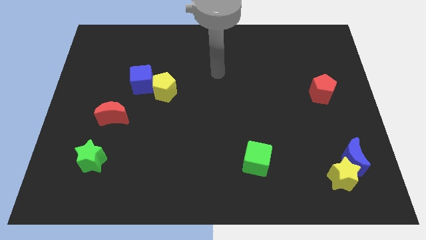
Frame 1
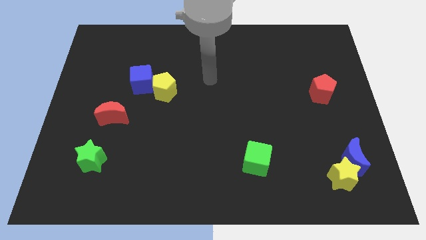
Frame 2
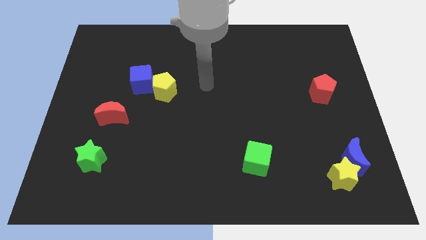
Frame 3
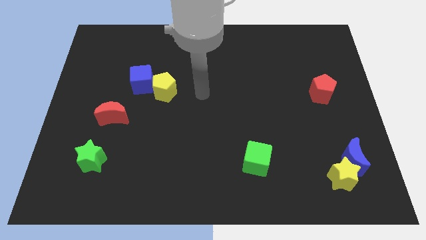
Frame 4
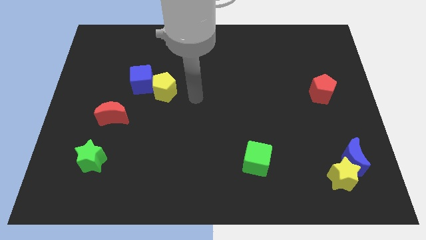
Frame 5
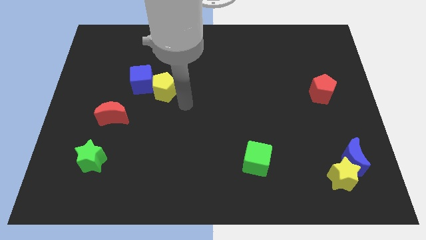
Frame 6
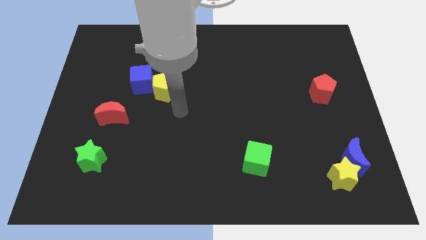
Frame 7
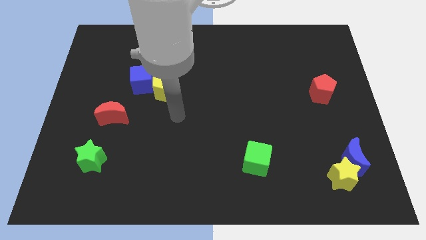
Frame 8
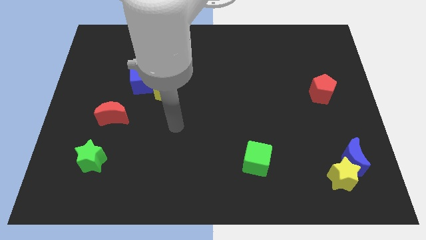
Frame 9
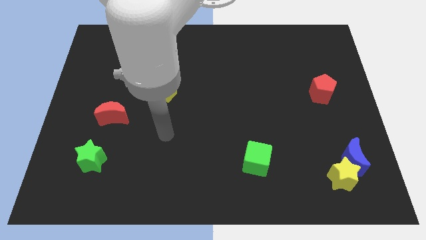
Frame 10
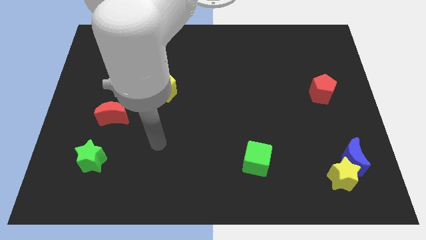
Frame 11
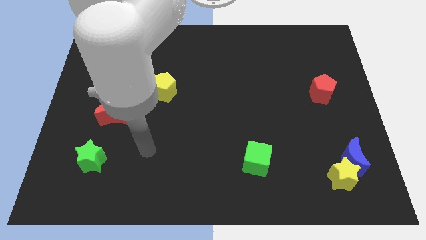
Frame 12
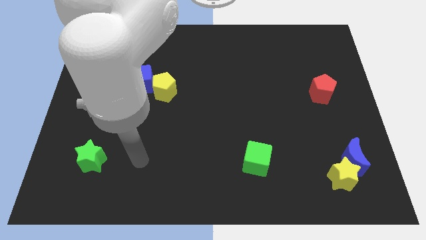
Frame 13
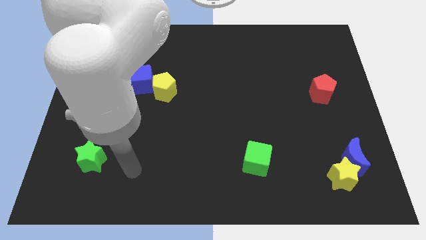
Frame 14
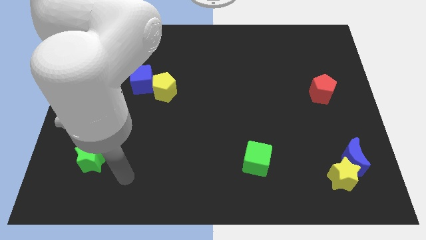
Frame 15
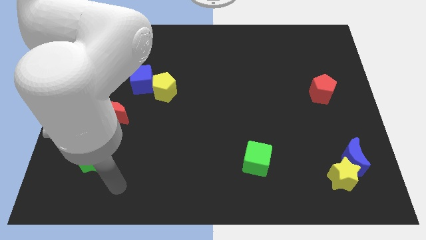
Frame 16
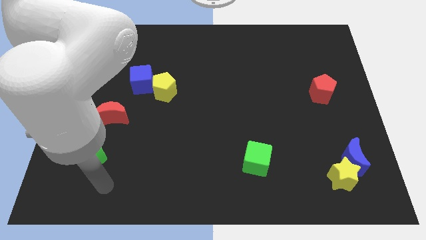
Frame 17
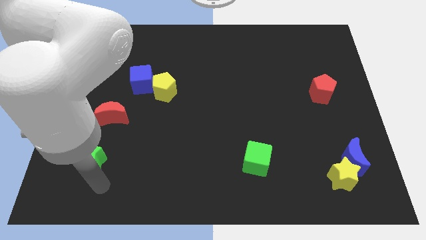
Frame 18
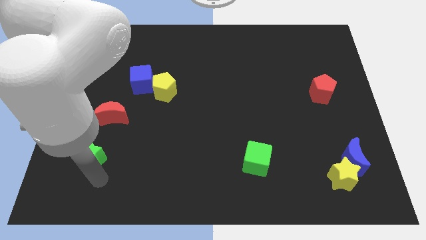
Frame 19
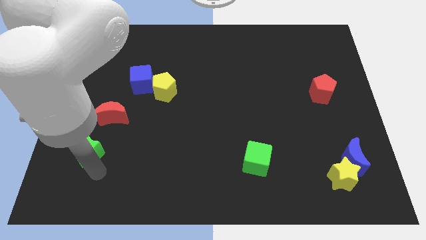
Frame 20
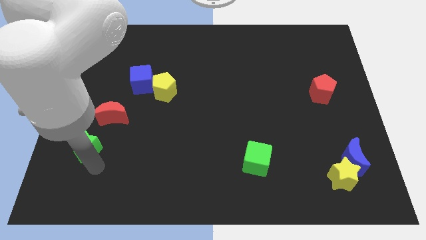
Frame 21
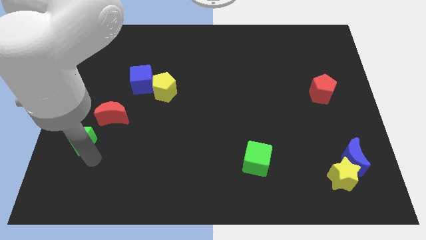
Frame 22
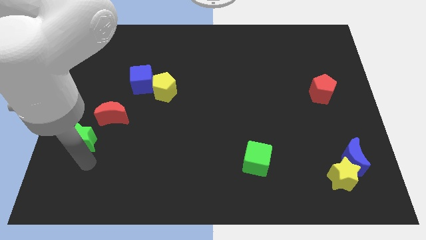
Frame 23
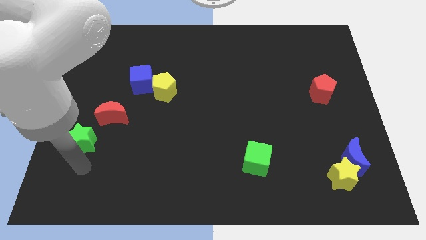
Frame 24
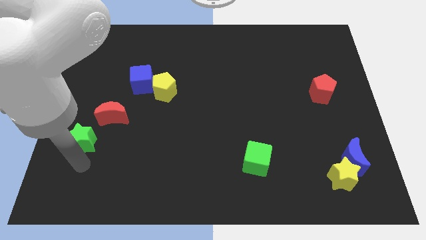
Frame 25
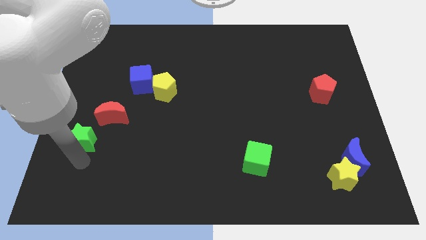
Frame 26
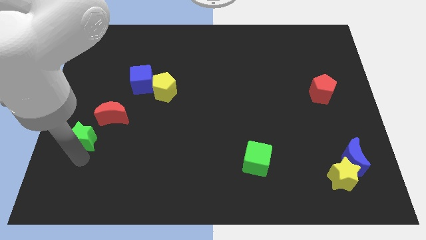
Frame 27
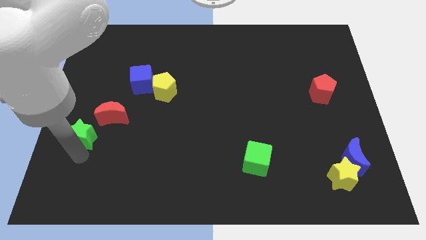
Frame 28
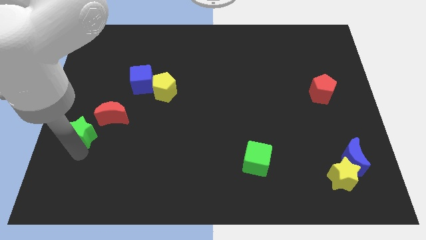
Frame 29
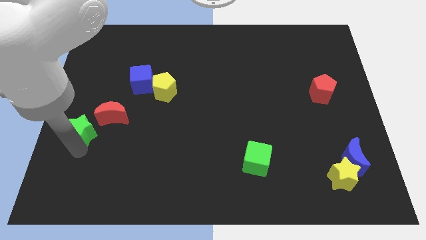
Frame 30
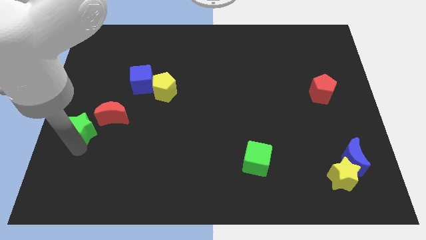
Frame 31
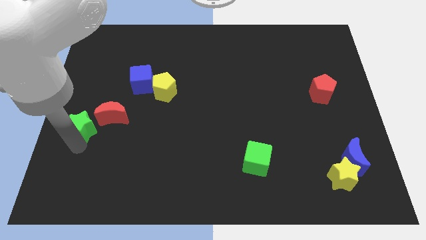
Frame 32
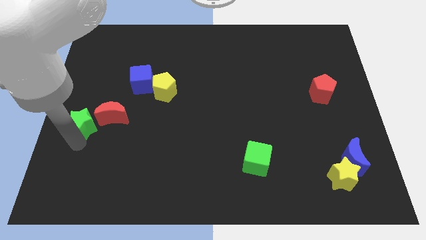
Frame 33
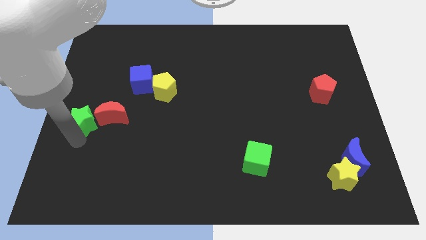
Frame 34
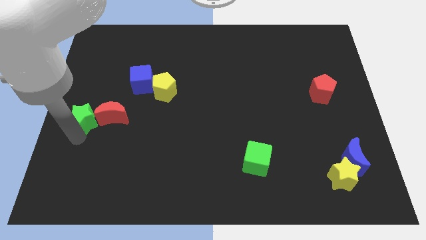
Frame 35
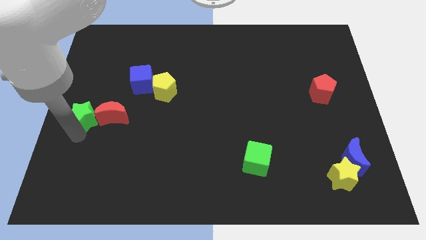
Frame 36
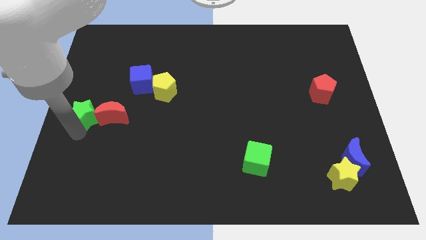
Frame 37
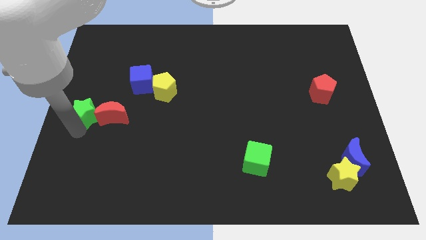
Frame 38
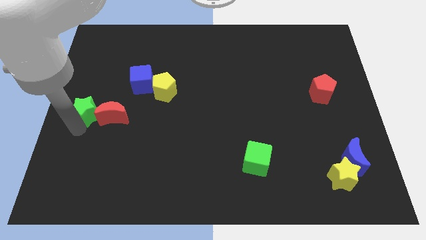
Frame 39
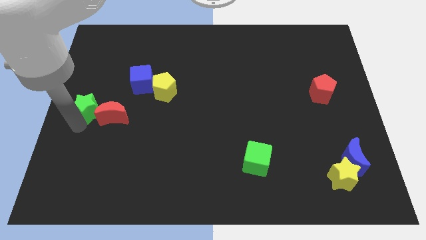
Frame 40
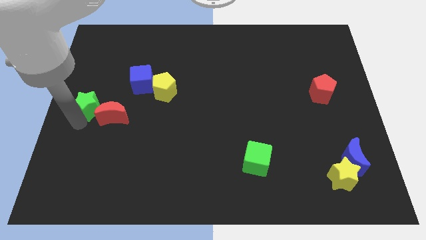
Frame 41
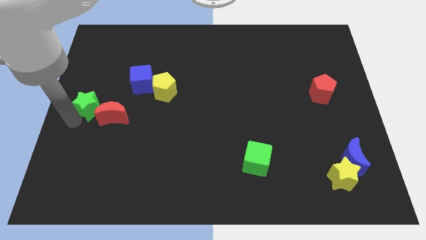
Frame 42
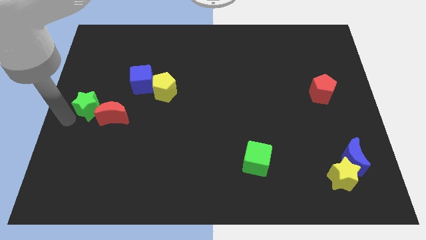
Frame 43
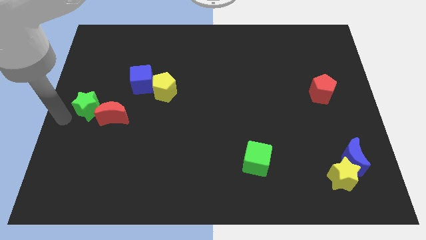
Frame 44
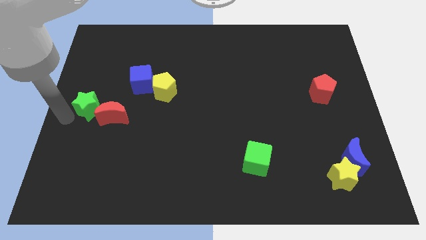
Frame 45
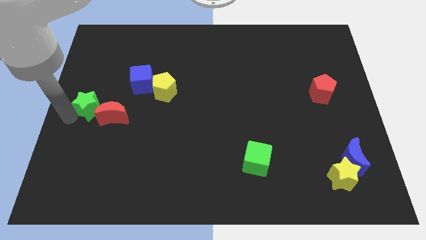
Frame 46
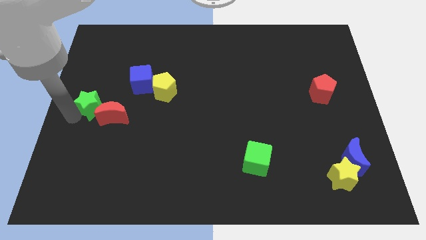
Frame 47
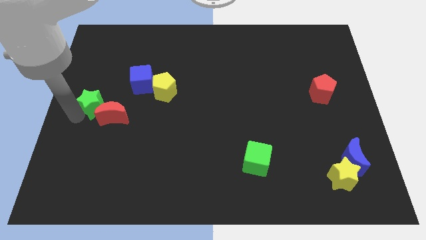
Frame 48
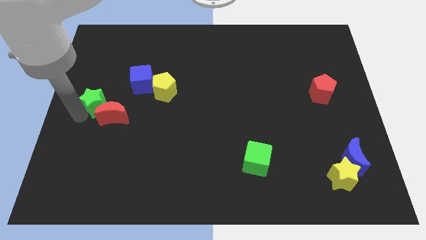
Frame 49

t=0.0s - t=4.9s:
slide the green star diagonally down and to the left of the blue cube

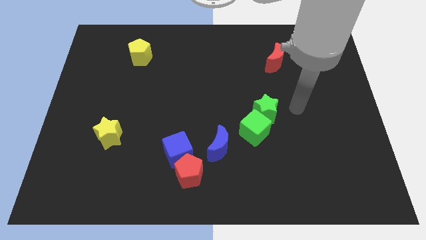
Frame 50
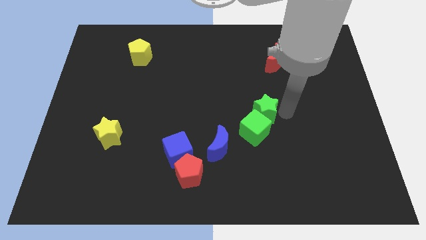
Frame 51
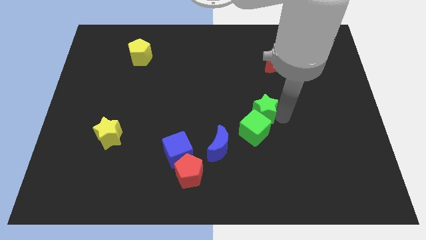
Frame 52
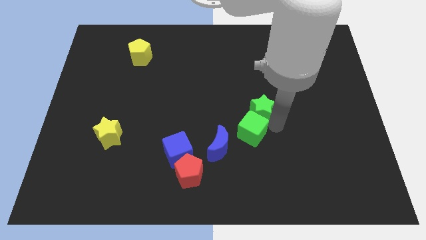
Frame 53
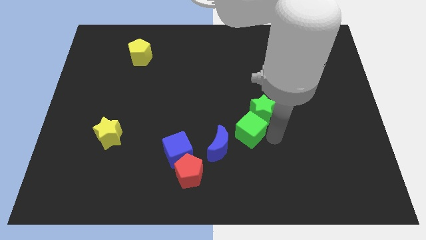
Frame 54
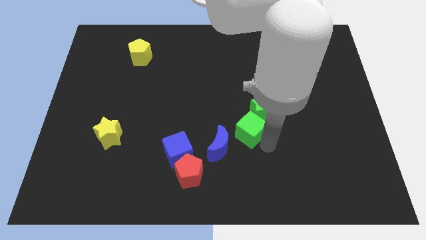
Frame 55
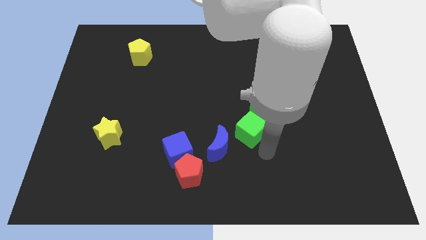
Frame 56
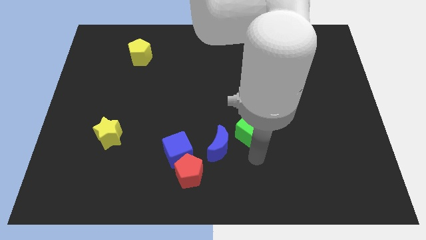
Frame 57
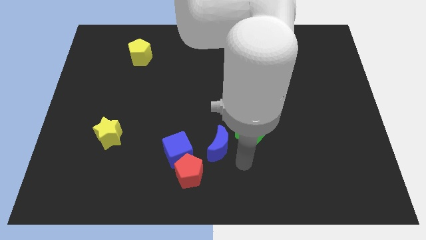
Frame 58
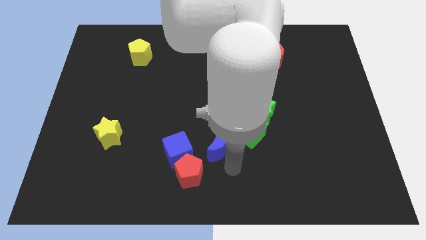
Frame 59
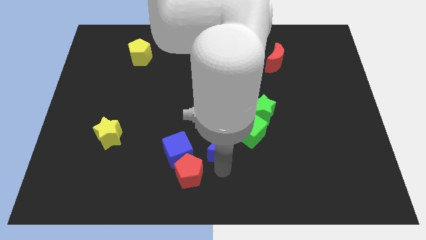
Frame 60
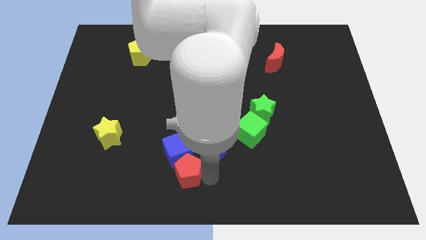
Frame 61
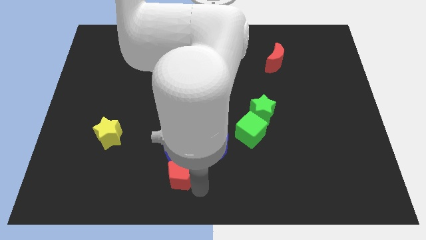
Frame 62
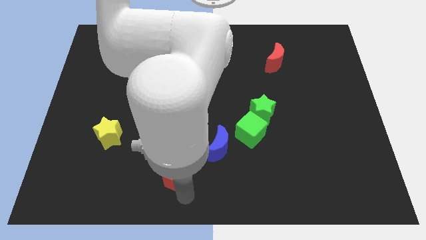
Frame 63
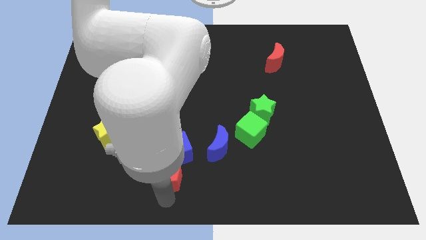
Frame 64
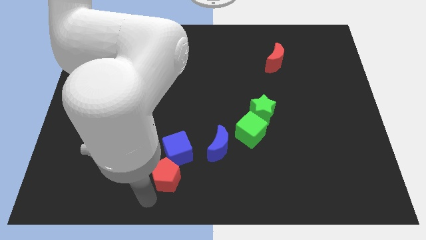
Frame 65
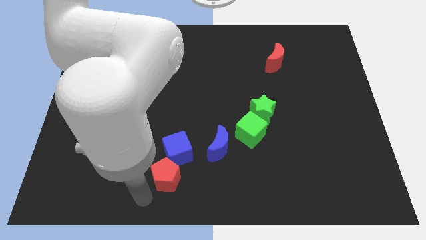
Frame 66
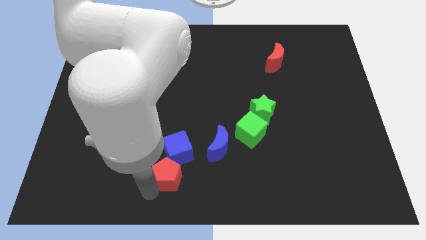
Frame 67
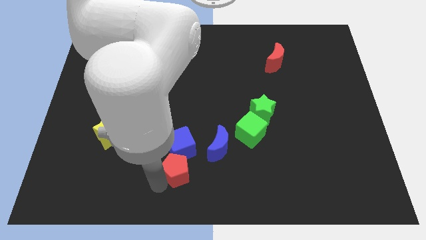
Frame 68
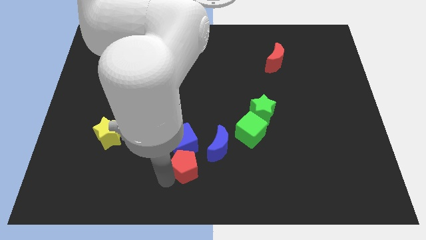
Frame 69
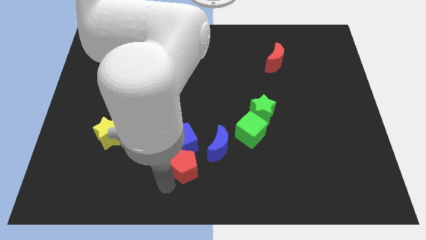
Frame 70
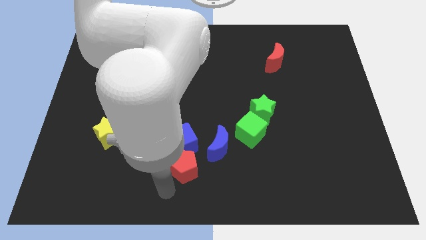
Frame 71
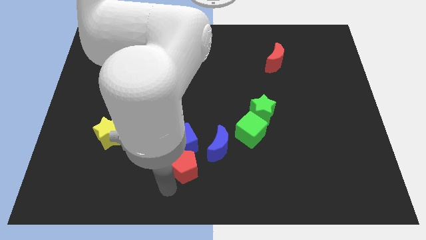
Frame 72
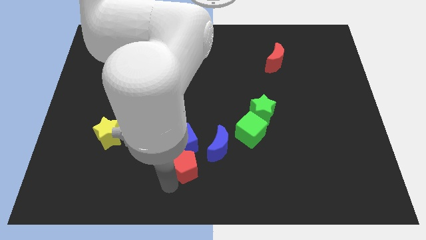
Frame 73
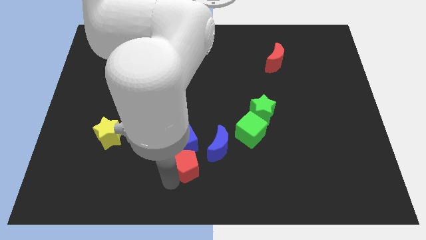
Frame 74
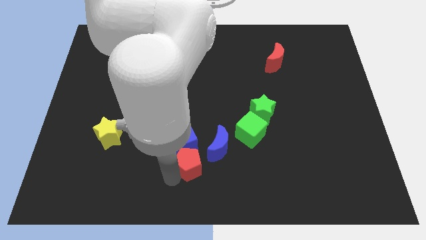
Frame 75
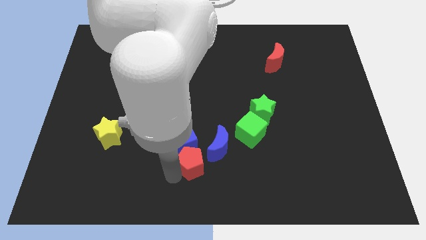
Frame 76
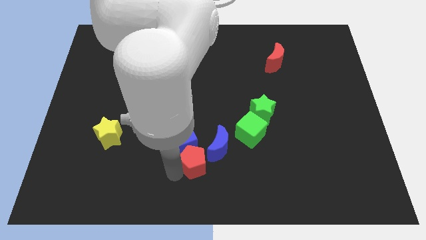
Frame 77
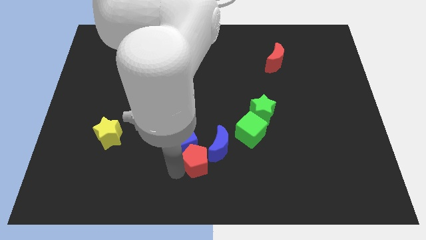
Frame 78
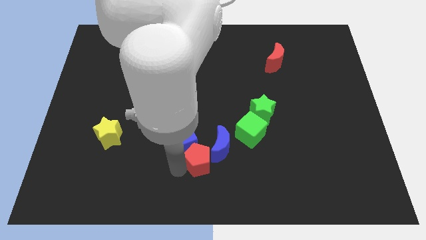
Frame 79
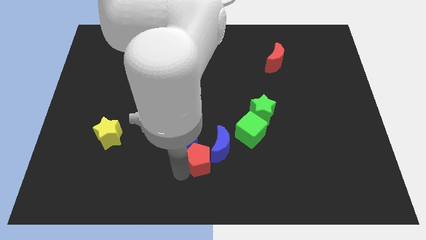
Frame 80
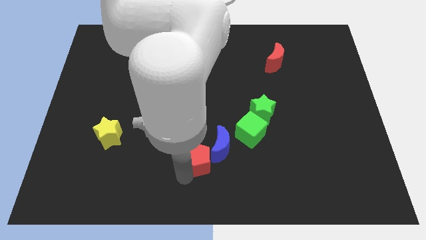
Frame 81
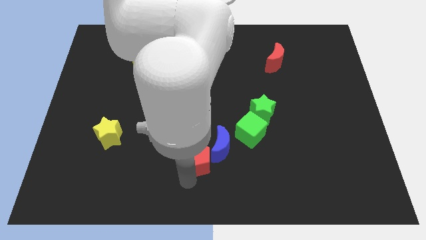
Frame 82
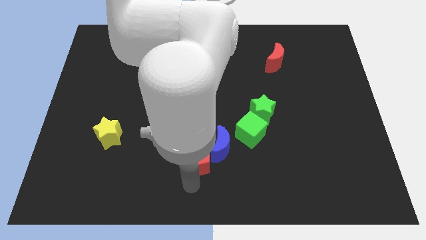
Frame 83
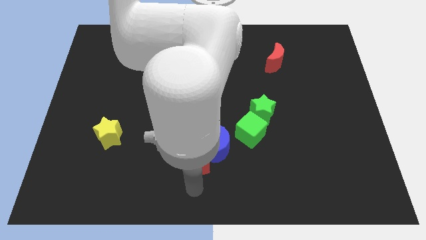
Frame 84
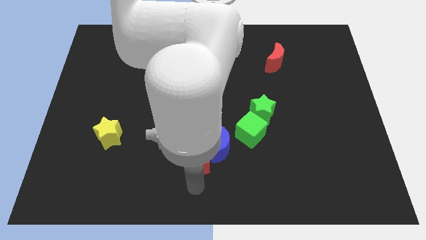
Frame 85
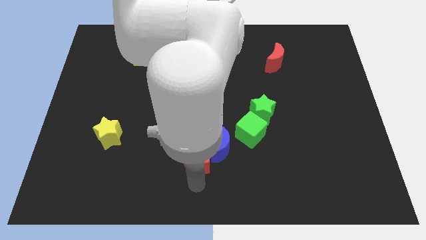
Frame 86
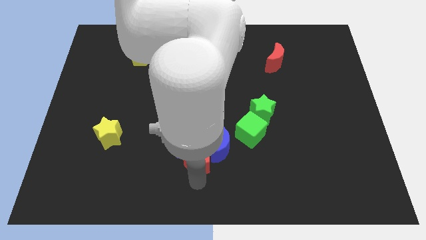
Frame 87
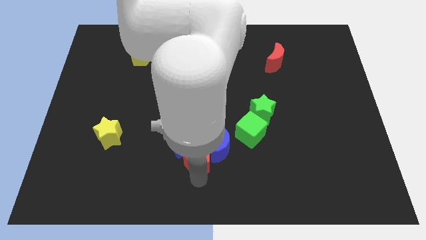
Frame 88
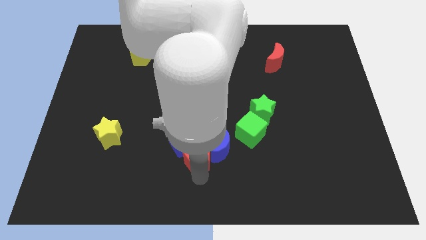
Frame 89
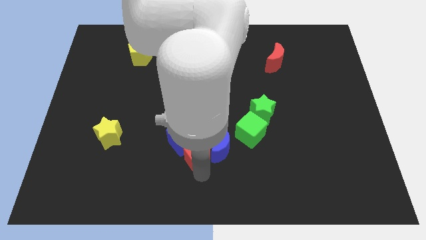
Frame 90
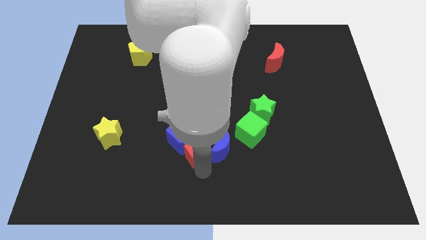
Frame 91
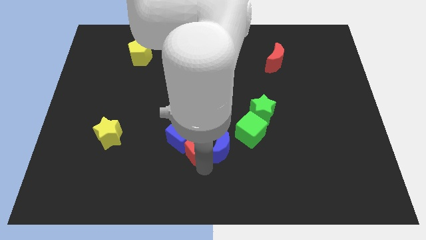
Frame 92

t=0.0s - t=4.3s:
put the red pentagon just left of the green cube
